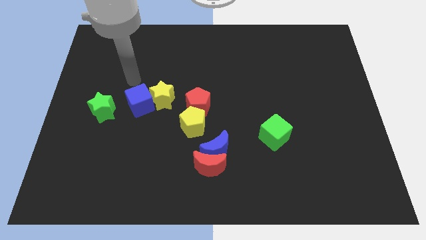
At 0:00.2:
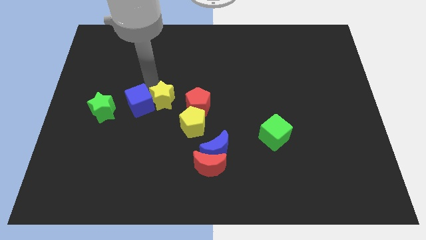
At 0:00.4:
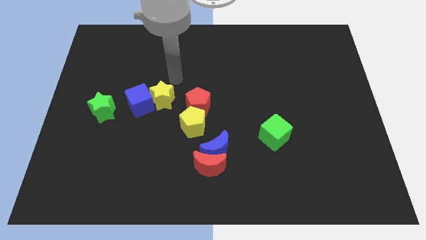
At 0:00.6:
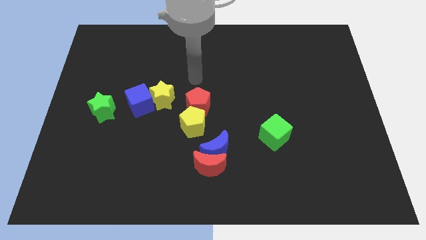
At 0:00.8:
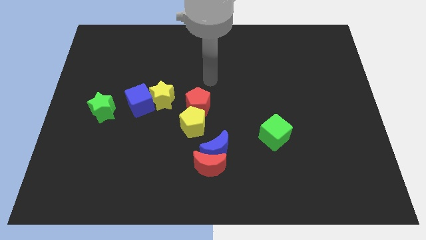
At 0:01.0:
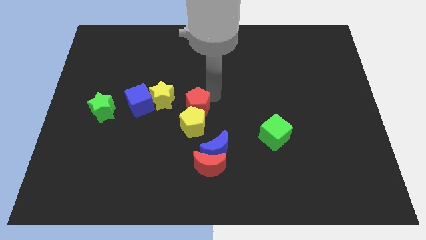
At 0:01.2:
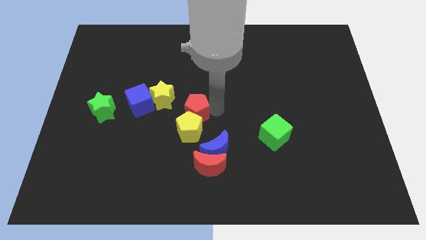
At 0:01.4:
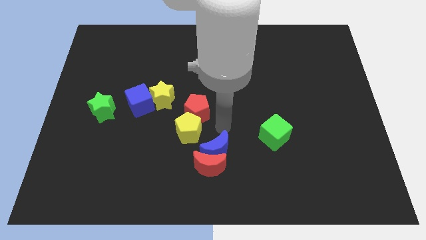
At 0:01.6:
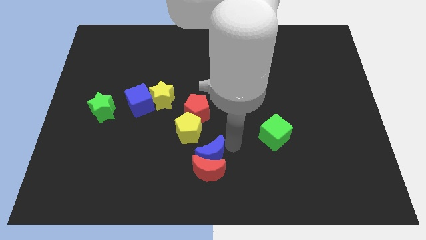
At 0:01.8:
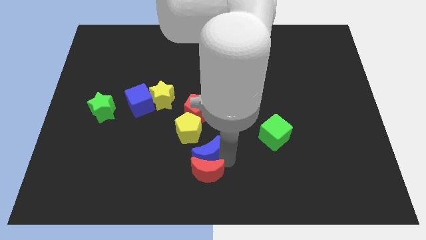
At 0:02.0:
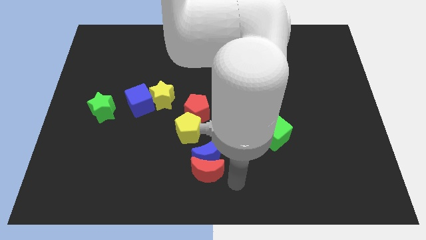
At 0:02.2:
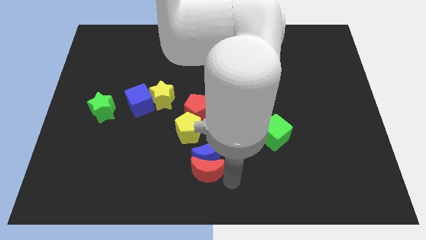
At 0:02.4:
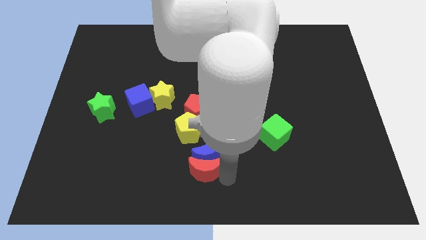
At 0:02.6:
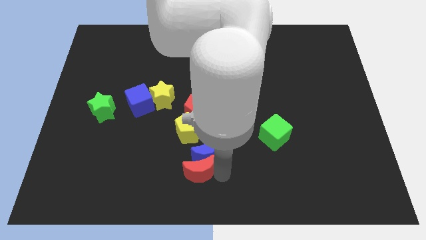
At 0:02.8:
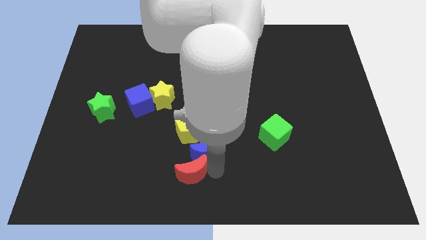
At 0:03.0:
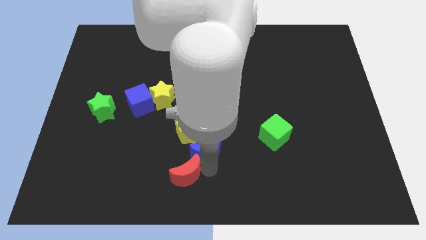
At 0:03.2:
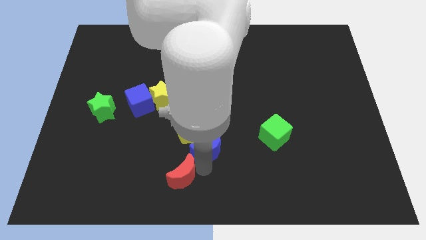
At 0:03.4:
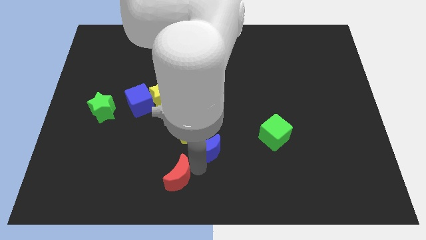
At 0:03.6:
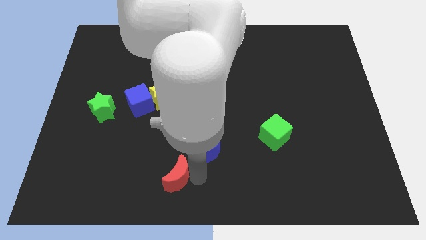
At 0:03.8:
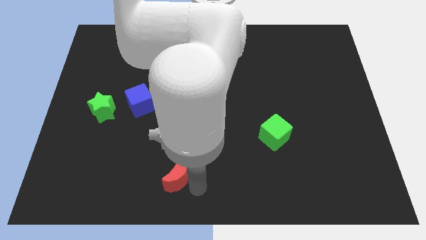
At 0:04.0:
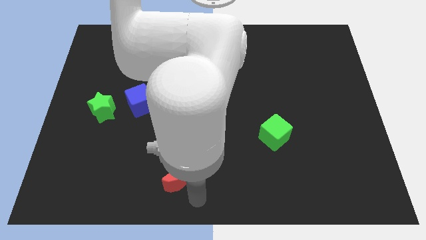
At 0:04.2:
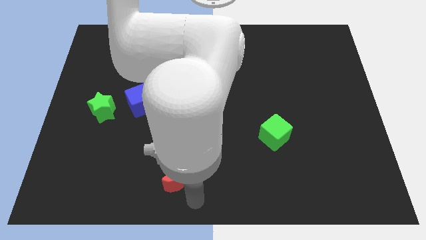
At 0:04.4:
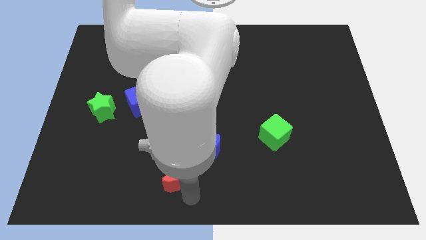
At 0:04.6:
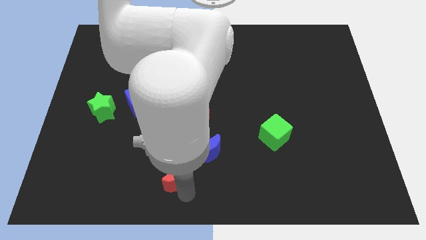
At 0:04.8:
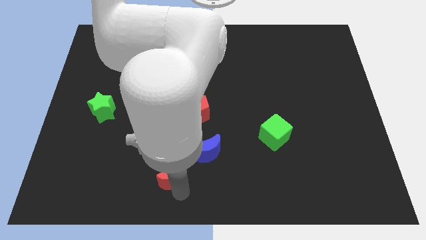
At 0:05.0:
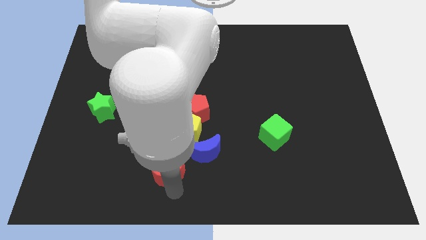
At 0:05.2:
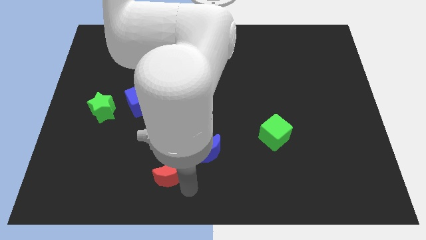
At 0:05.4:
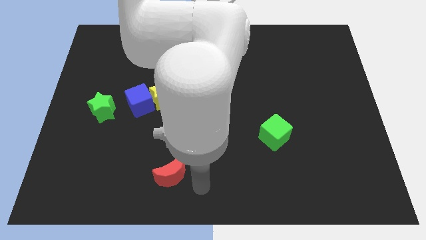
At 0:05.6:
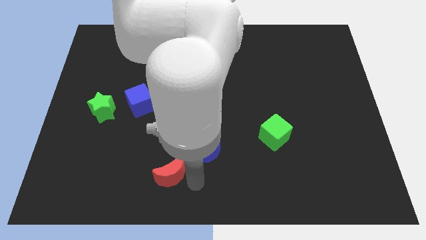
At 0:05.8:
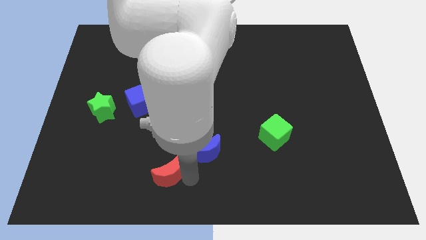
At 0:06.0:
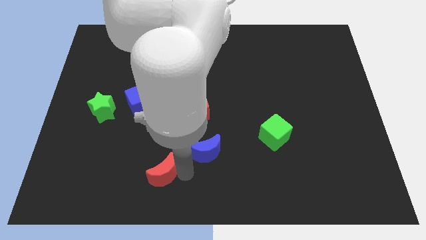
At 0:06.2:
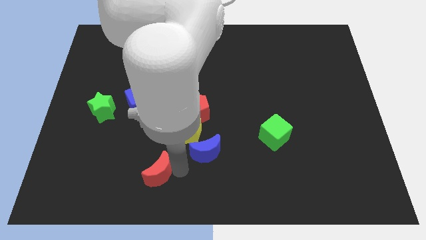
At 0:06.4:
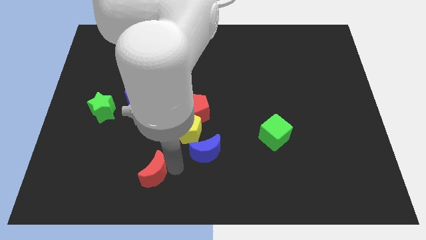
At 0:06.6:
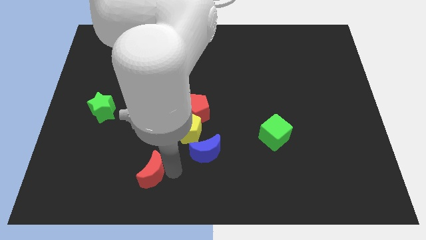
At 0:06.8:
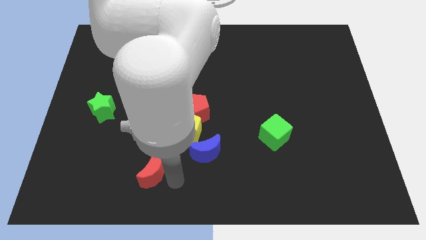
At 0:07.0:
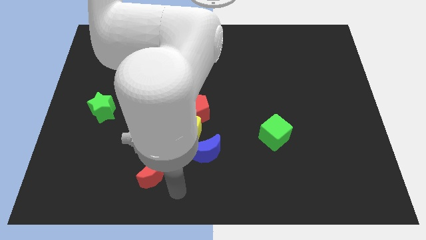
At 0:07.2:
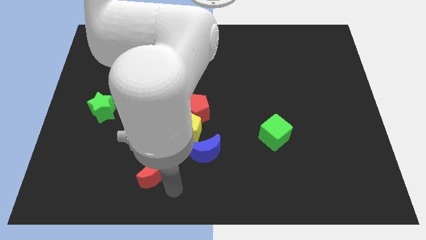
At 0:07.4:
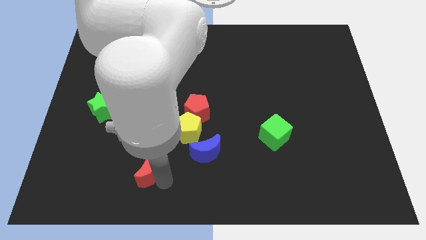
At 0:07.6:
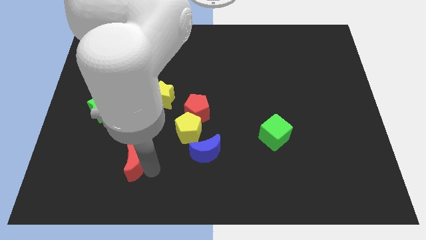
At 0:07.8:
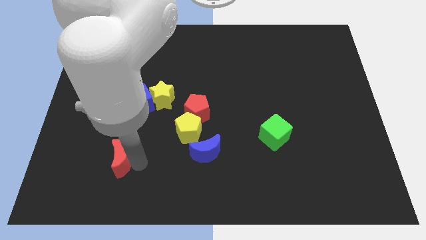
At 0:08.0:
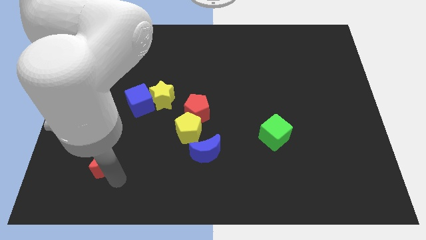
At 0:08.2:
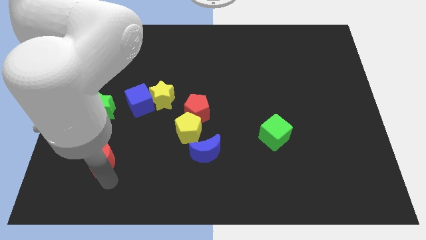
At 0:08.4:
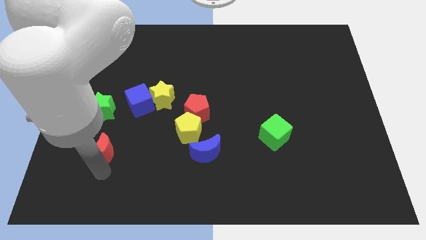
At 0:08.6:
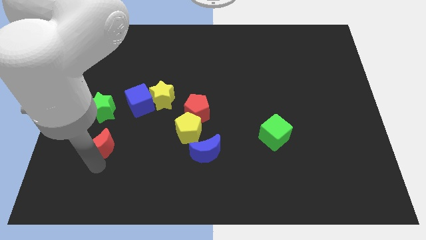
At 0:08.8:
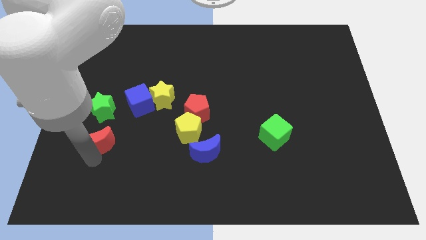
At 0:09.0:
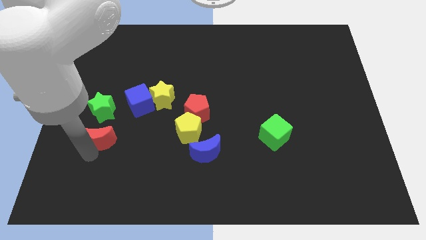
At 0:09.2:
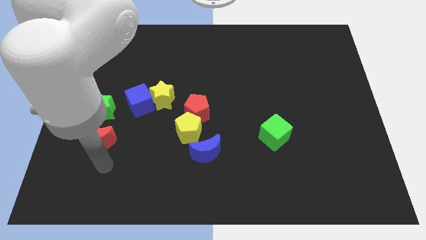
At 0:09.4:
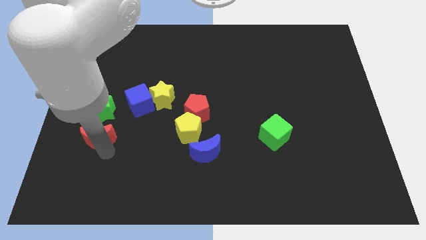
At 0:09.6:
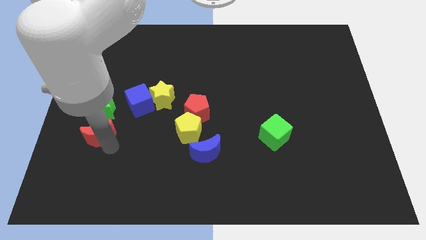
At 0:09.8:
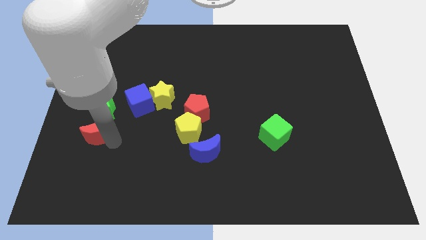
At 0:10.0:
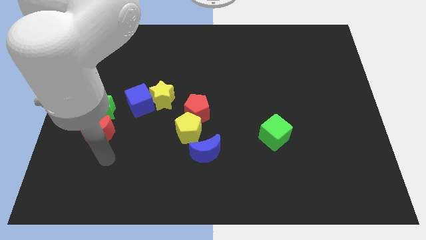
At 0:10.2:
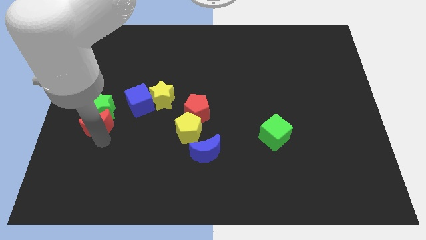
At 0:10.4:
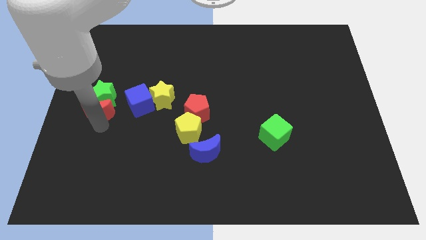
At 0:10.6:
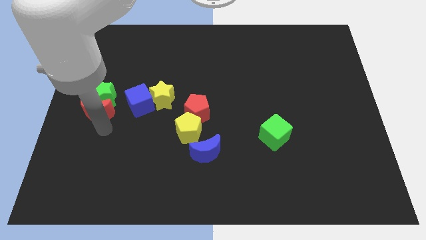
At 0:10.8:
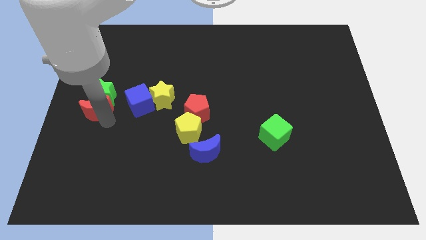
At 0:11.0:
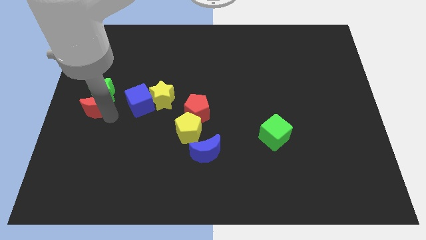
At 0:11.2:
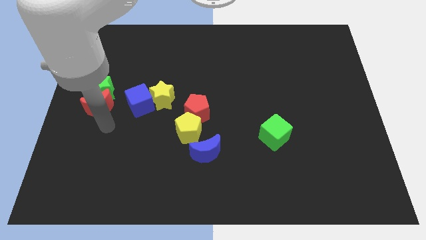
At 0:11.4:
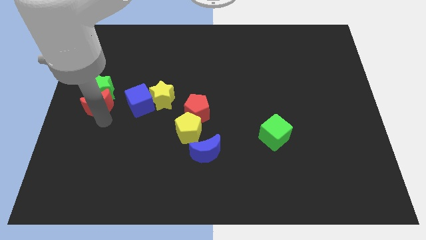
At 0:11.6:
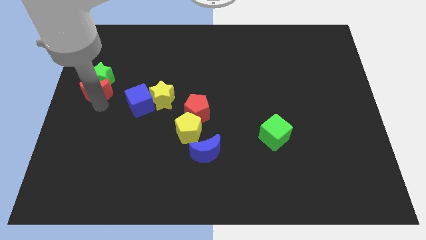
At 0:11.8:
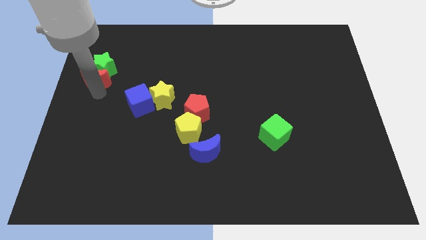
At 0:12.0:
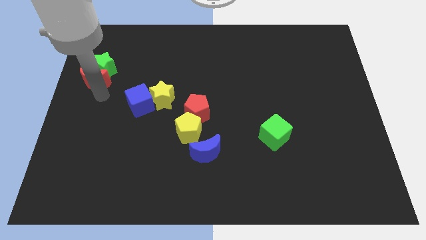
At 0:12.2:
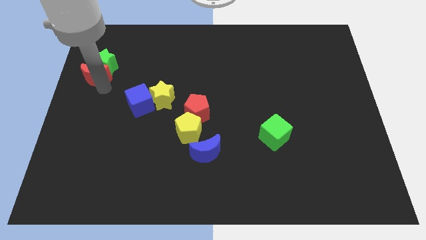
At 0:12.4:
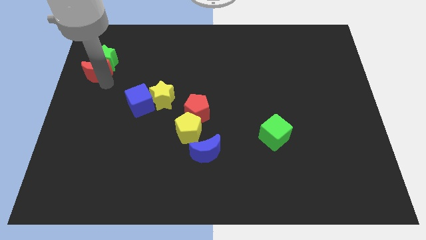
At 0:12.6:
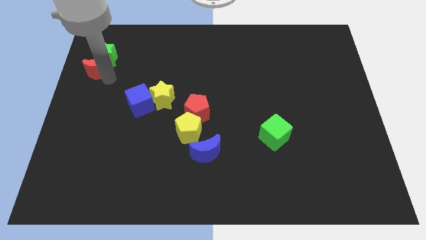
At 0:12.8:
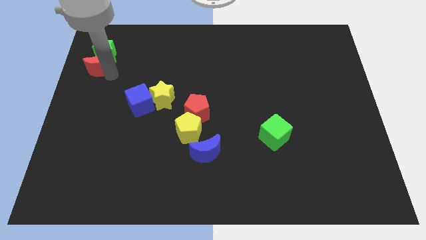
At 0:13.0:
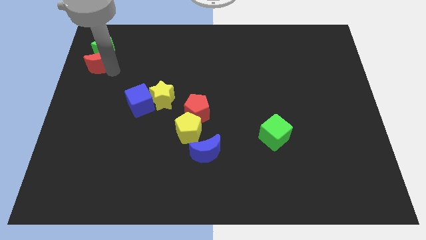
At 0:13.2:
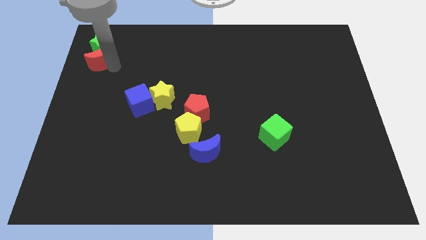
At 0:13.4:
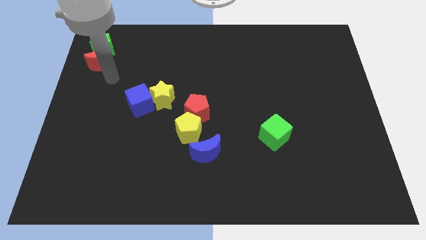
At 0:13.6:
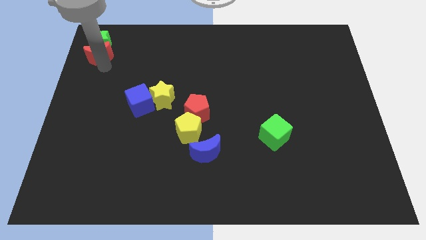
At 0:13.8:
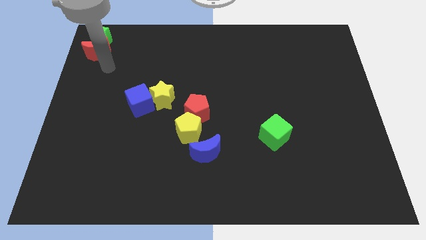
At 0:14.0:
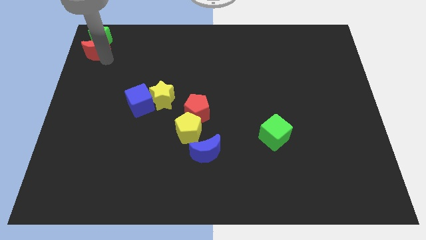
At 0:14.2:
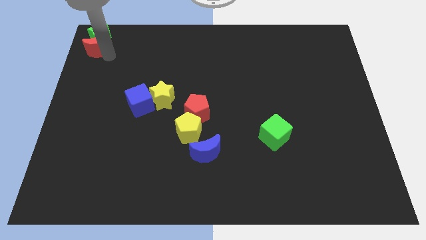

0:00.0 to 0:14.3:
slide the red moon to the top left of the board
